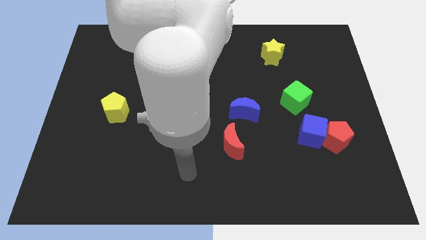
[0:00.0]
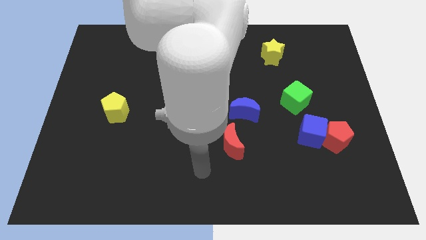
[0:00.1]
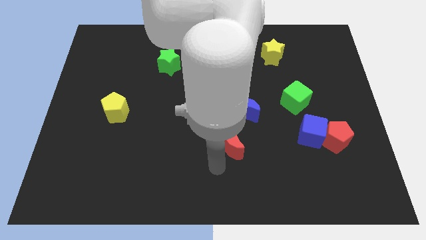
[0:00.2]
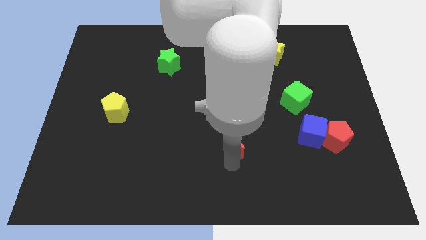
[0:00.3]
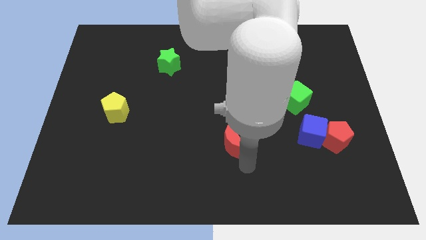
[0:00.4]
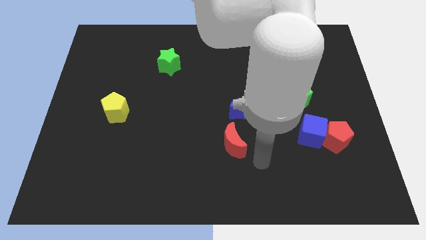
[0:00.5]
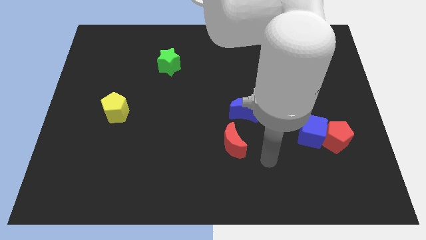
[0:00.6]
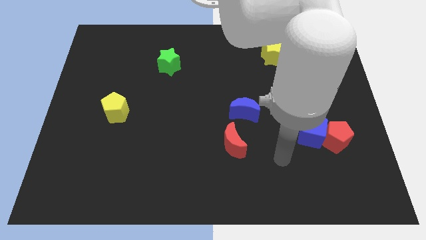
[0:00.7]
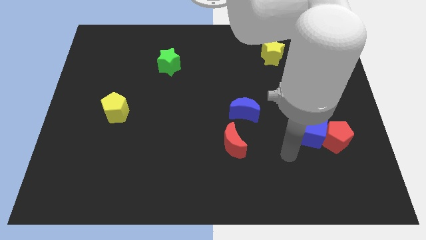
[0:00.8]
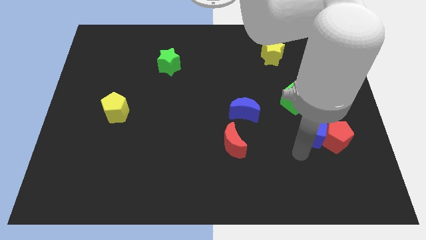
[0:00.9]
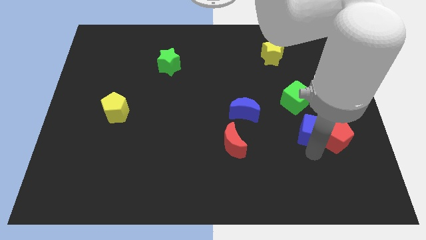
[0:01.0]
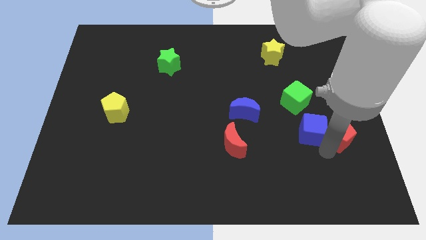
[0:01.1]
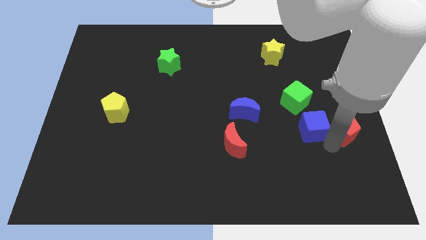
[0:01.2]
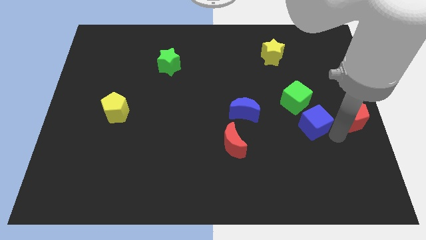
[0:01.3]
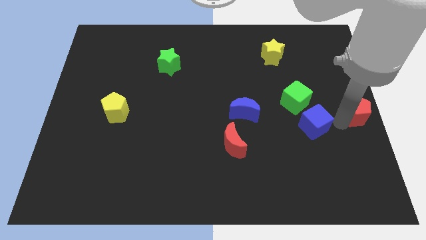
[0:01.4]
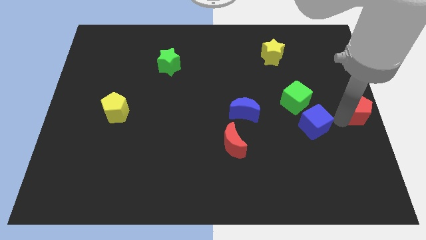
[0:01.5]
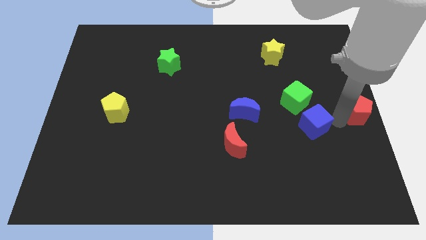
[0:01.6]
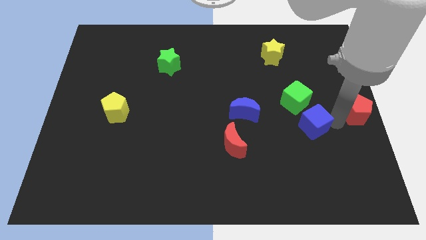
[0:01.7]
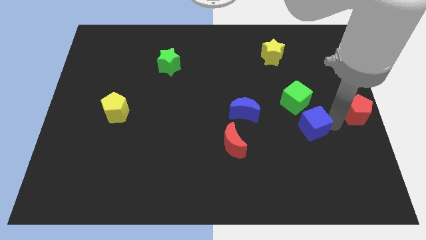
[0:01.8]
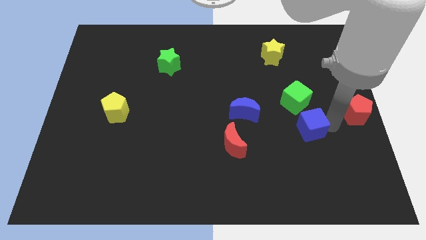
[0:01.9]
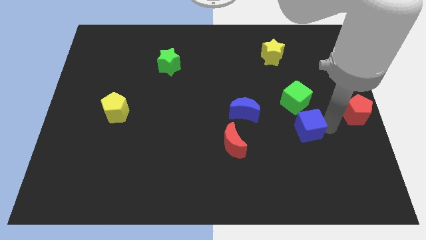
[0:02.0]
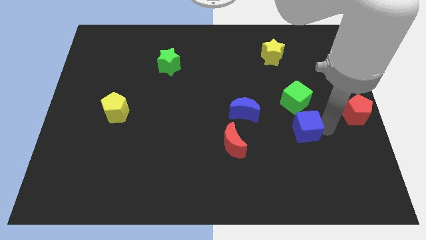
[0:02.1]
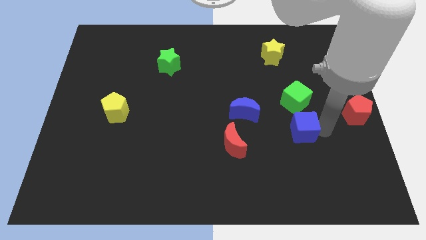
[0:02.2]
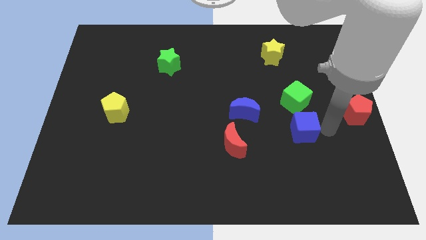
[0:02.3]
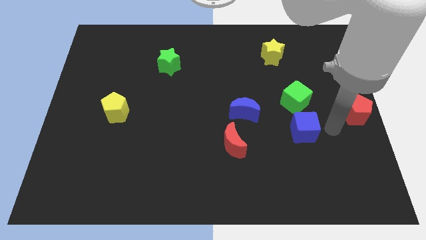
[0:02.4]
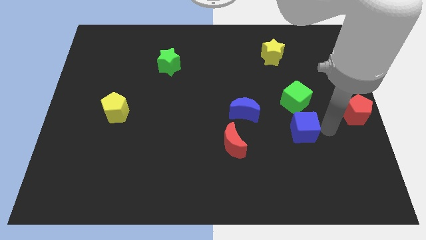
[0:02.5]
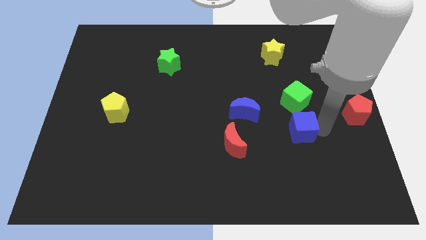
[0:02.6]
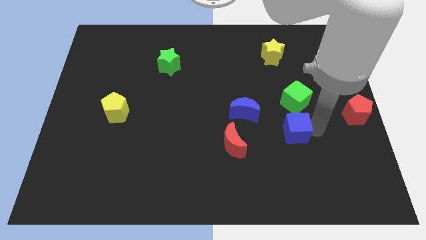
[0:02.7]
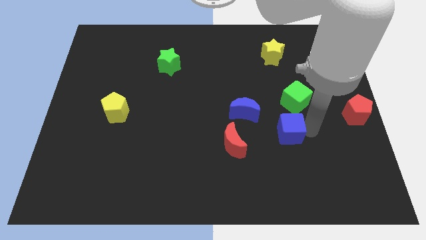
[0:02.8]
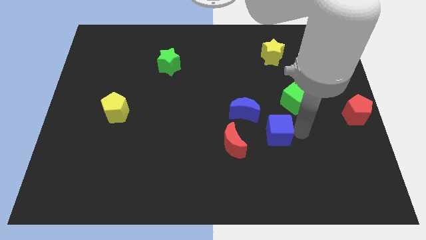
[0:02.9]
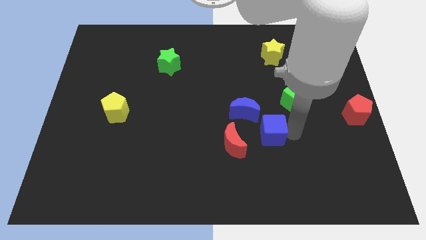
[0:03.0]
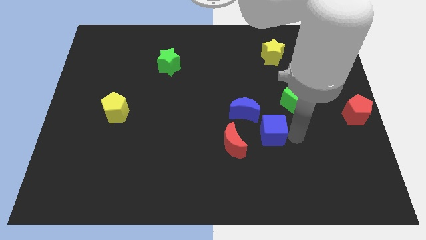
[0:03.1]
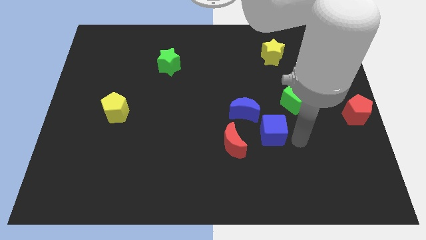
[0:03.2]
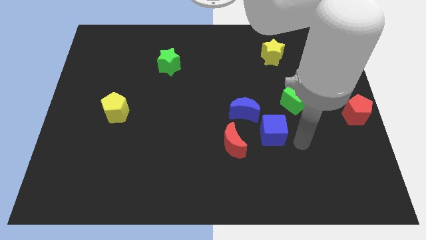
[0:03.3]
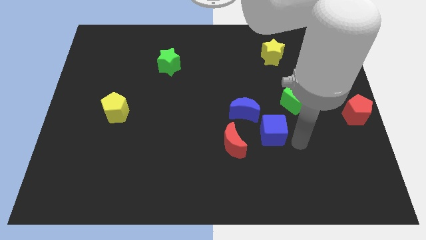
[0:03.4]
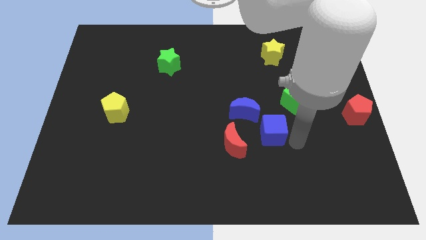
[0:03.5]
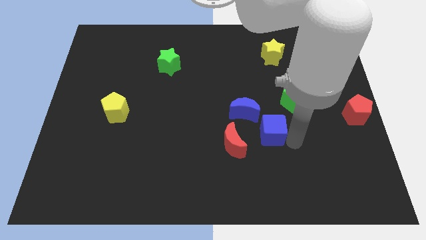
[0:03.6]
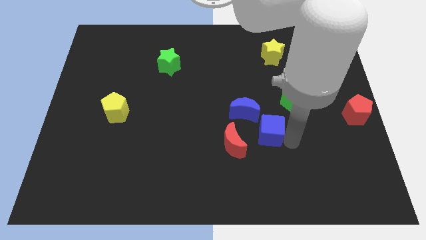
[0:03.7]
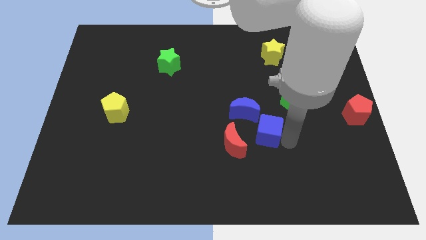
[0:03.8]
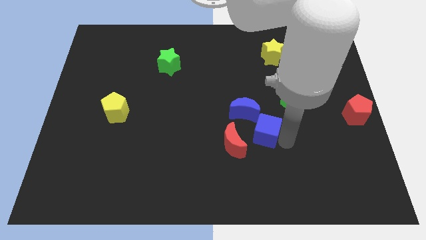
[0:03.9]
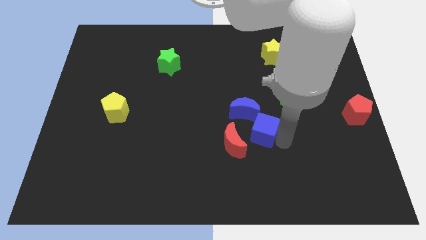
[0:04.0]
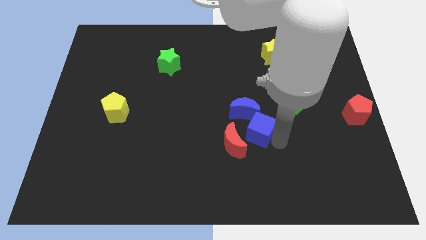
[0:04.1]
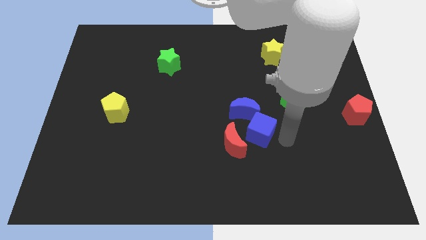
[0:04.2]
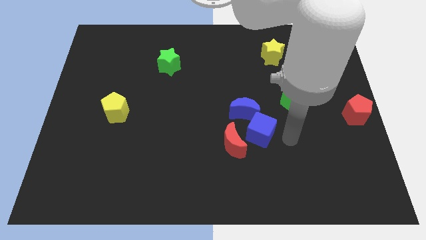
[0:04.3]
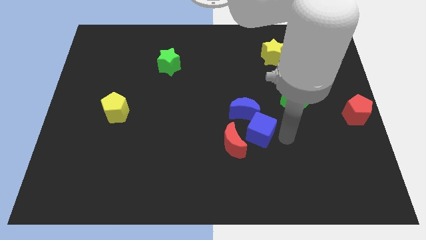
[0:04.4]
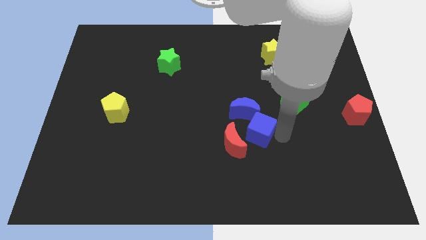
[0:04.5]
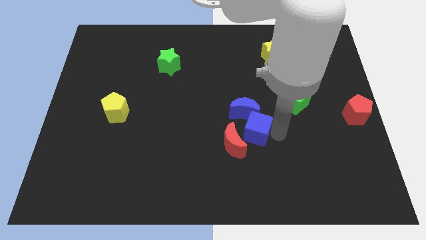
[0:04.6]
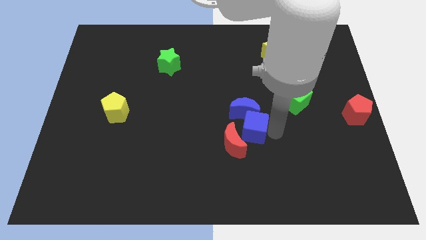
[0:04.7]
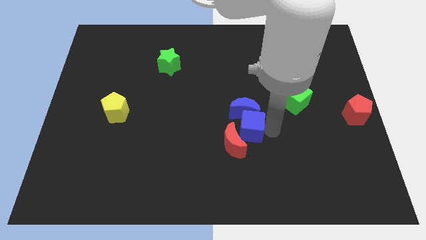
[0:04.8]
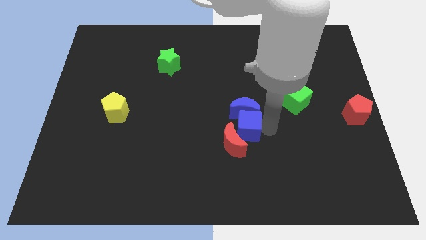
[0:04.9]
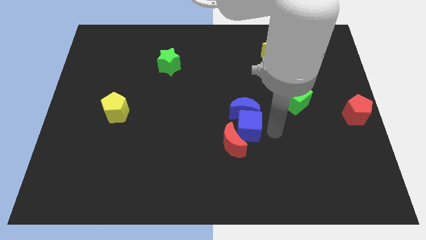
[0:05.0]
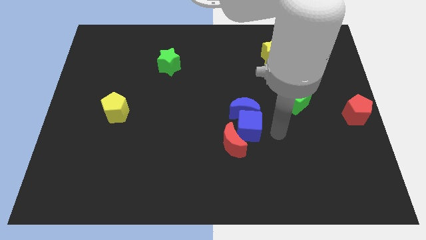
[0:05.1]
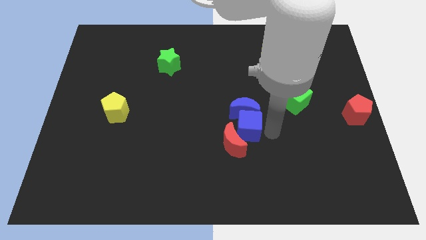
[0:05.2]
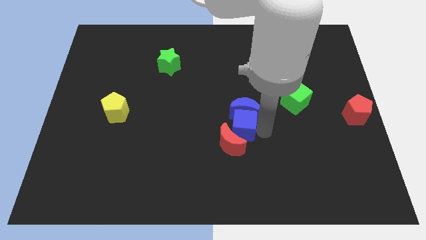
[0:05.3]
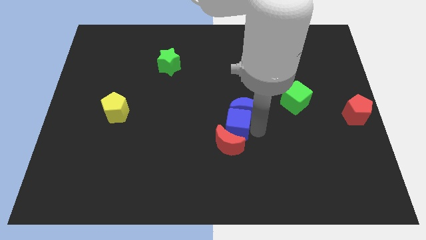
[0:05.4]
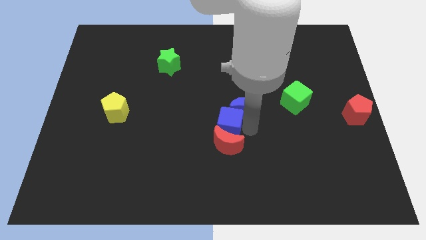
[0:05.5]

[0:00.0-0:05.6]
move the blue cube to the top left of the red moon

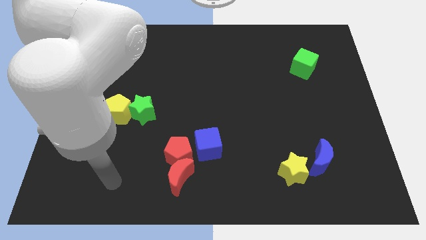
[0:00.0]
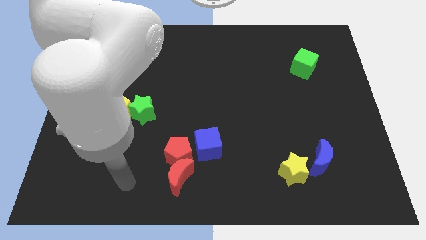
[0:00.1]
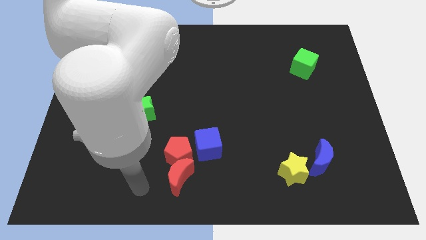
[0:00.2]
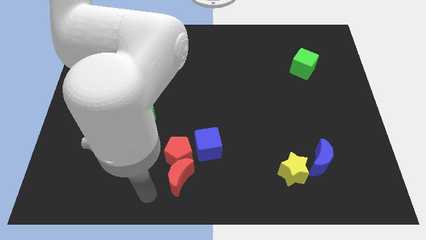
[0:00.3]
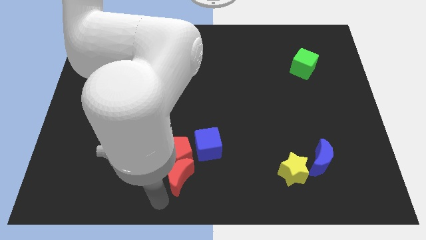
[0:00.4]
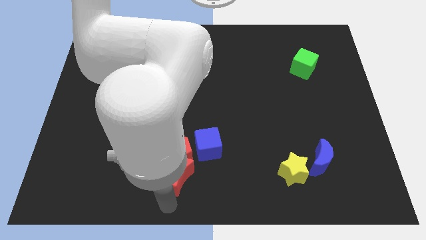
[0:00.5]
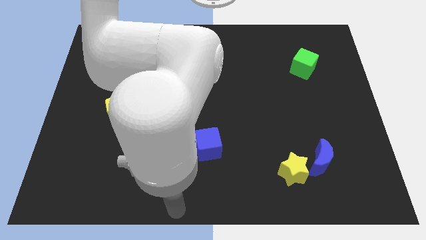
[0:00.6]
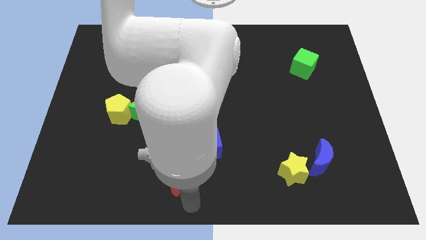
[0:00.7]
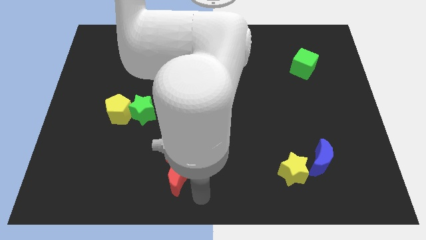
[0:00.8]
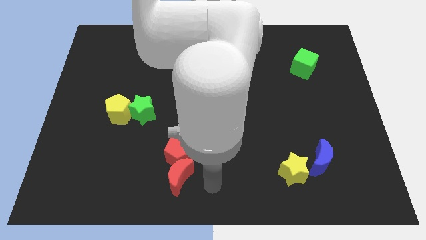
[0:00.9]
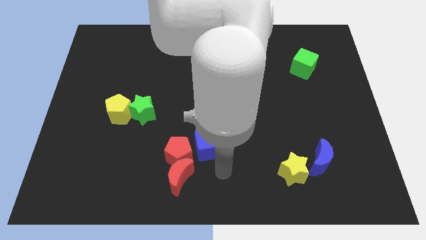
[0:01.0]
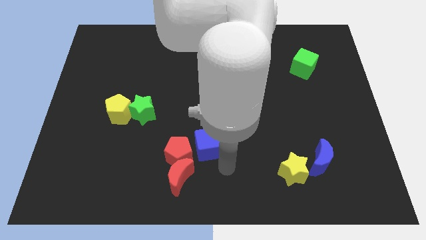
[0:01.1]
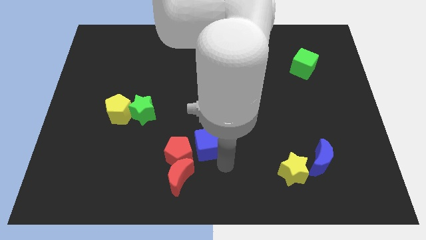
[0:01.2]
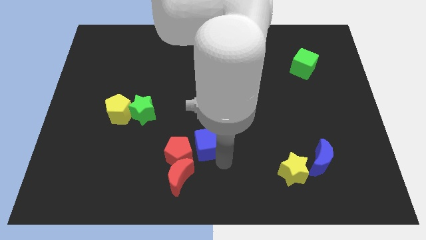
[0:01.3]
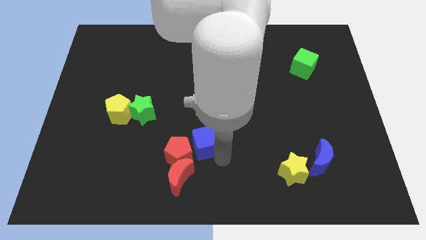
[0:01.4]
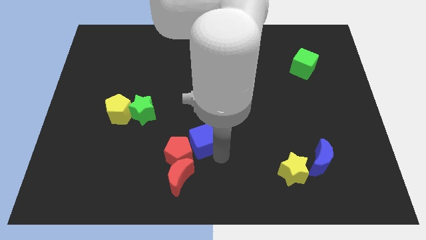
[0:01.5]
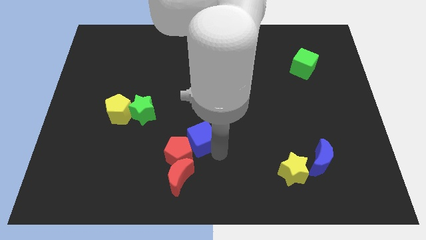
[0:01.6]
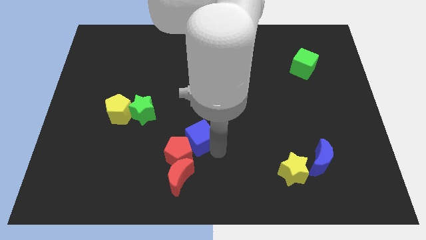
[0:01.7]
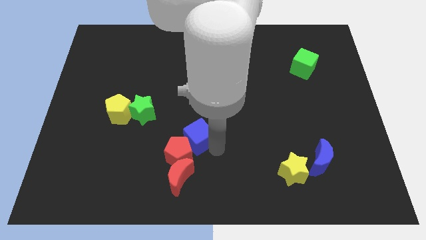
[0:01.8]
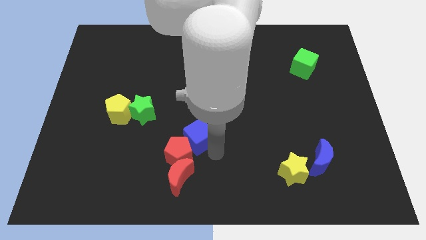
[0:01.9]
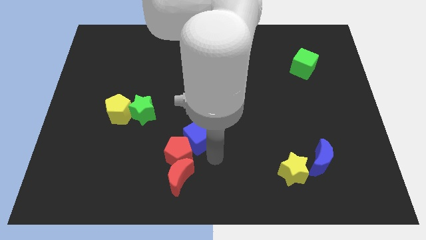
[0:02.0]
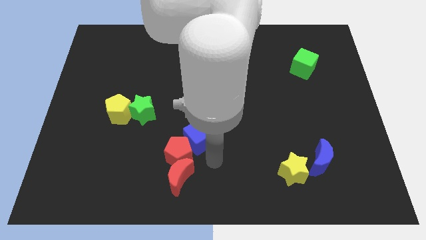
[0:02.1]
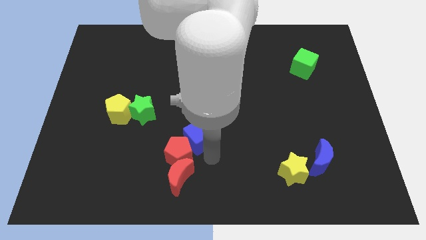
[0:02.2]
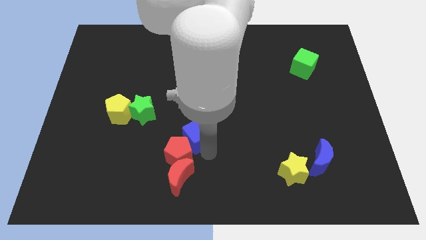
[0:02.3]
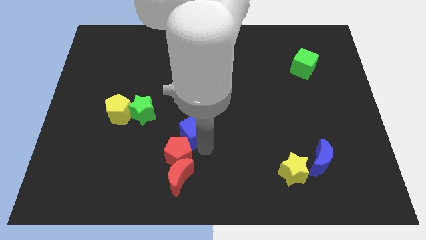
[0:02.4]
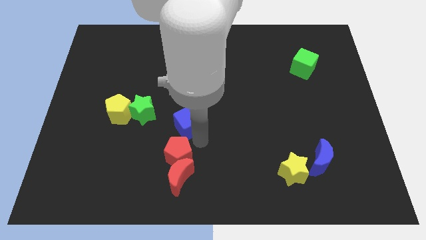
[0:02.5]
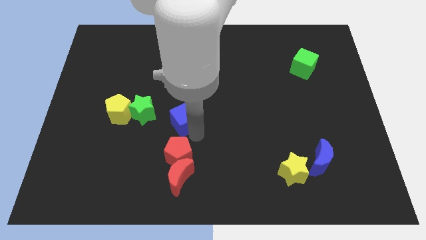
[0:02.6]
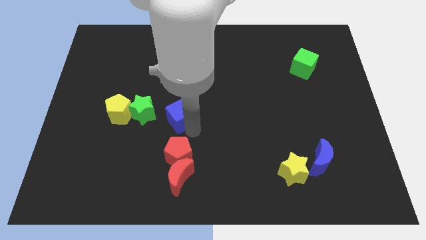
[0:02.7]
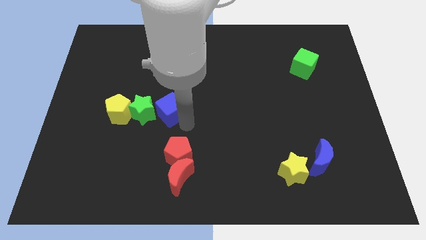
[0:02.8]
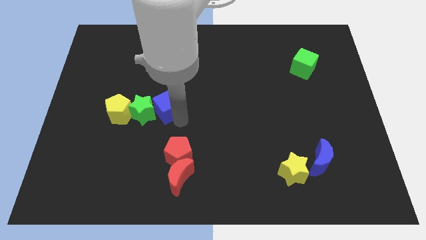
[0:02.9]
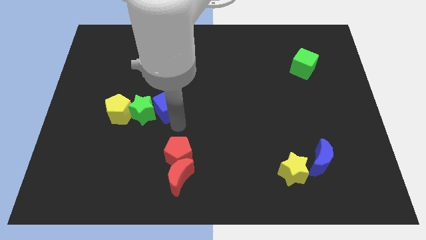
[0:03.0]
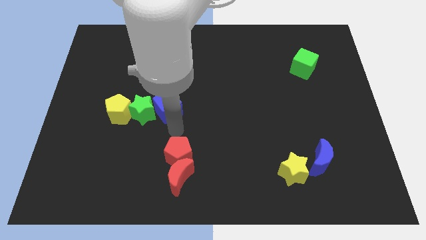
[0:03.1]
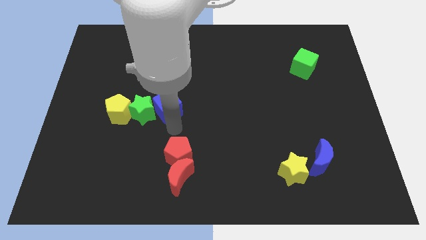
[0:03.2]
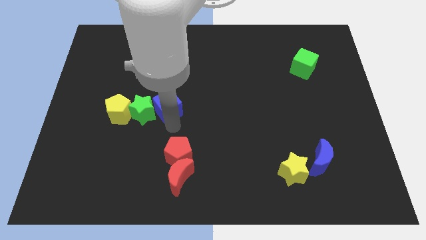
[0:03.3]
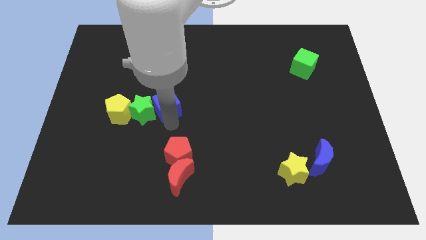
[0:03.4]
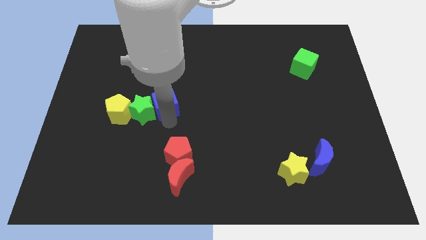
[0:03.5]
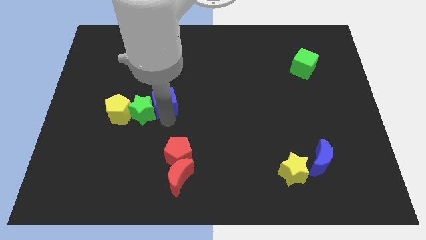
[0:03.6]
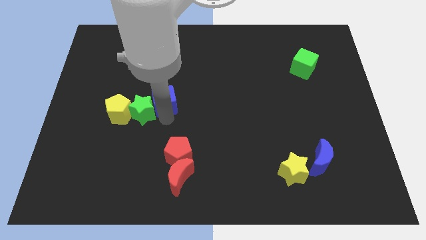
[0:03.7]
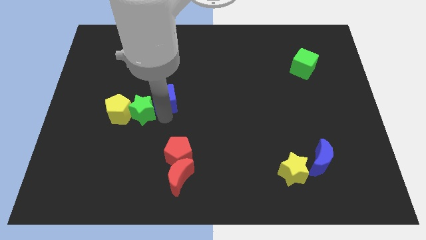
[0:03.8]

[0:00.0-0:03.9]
put the blue cube above the green star
